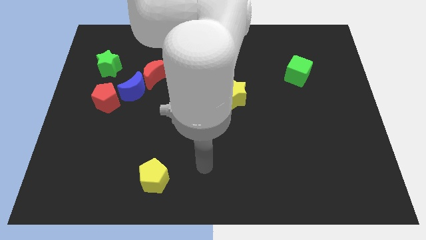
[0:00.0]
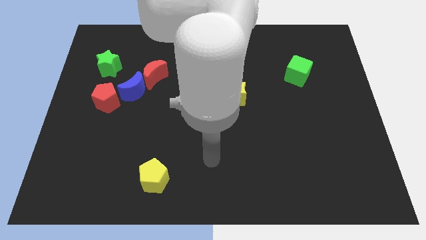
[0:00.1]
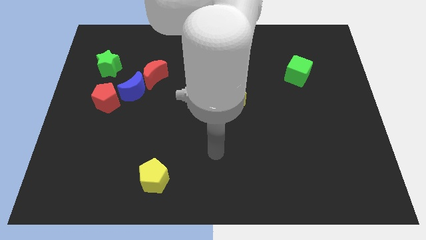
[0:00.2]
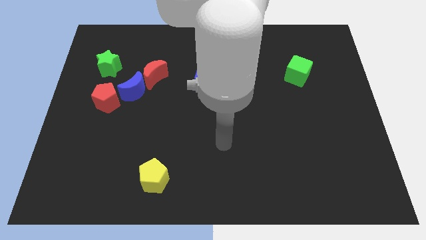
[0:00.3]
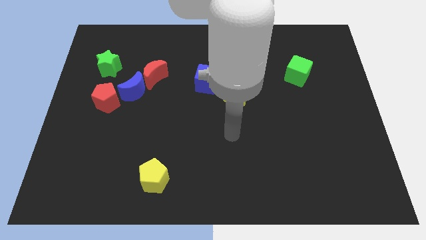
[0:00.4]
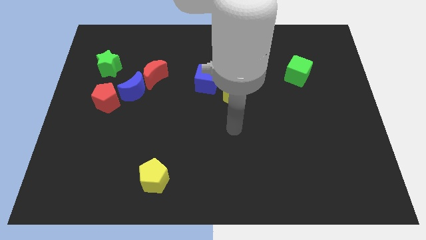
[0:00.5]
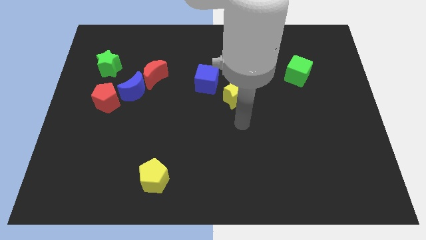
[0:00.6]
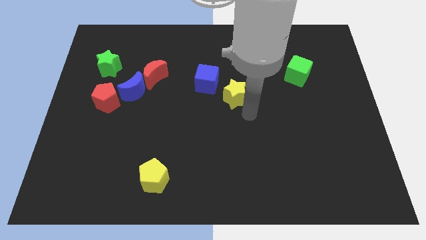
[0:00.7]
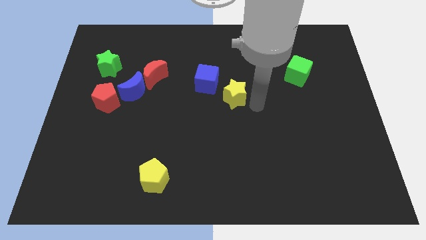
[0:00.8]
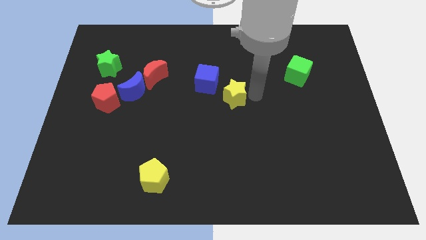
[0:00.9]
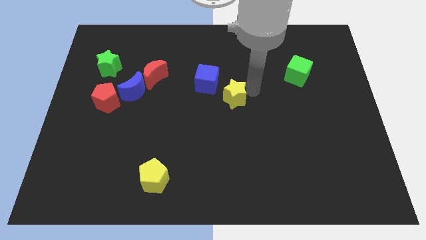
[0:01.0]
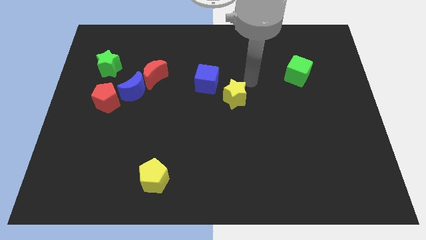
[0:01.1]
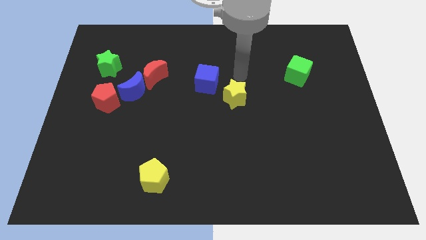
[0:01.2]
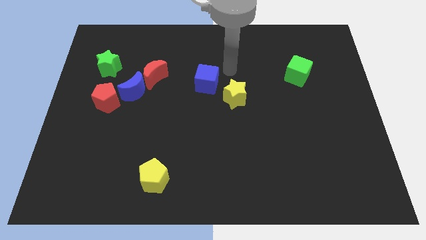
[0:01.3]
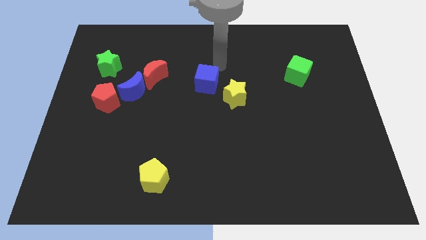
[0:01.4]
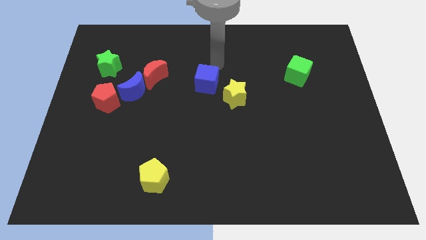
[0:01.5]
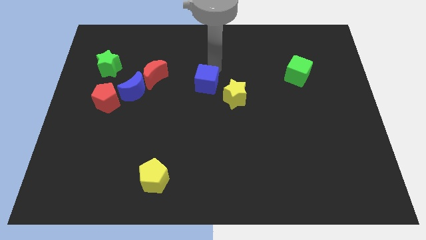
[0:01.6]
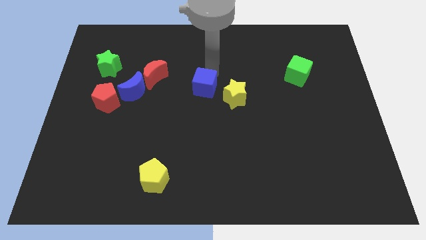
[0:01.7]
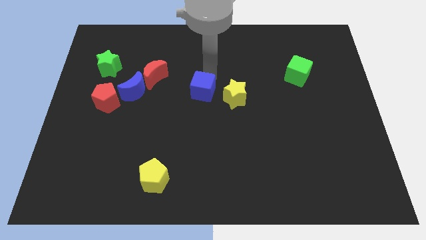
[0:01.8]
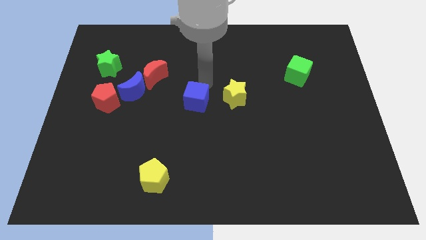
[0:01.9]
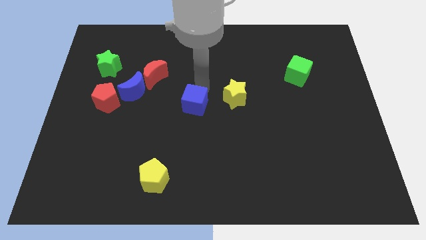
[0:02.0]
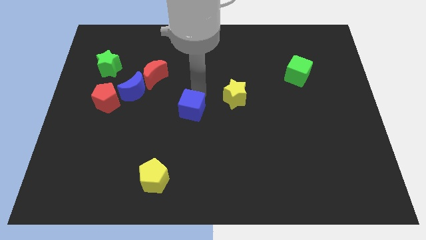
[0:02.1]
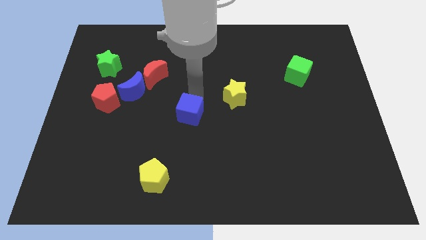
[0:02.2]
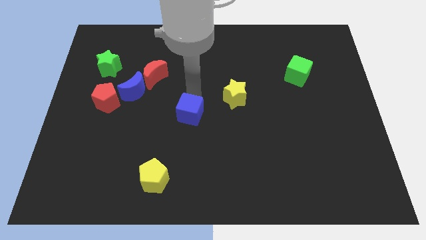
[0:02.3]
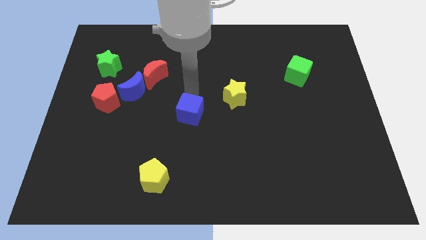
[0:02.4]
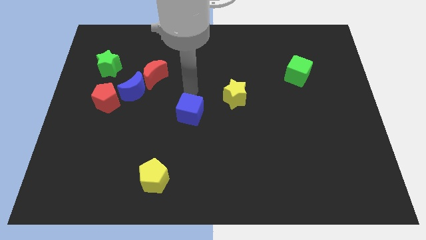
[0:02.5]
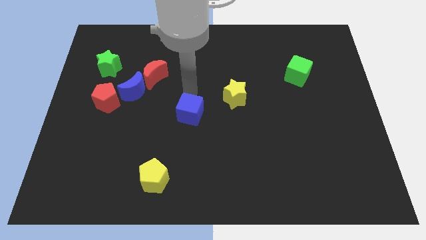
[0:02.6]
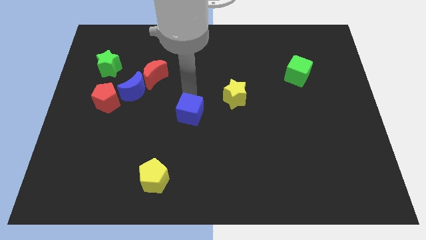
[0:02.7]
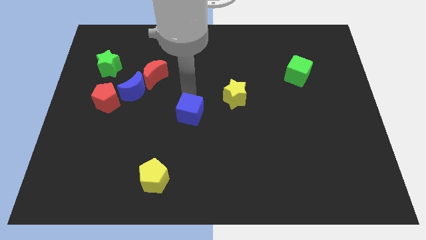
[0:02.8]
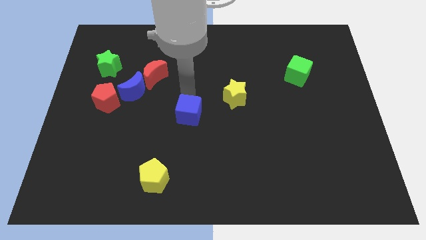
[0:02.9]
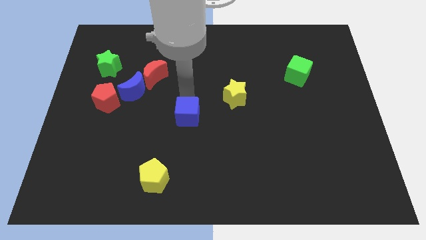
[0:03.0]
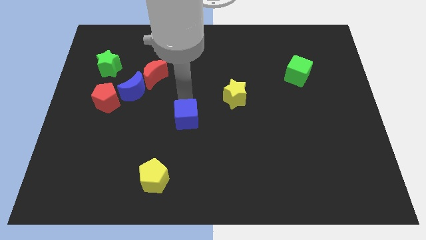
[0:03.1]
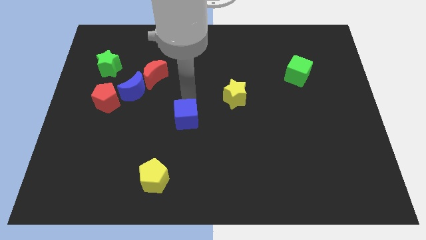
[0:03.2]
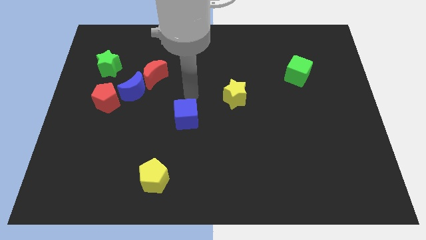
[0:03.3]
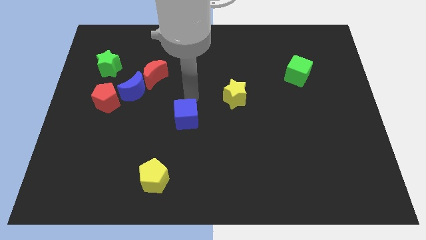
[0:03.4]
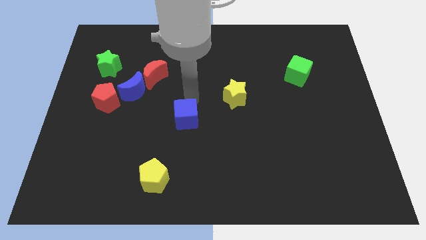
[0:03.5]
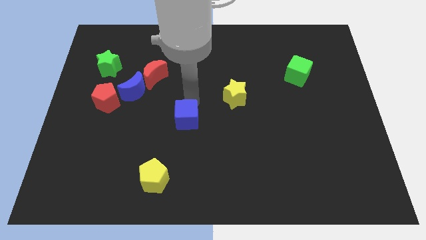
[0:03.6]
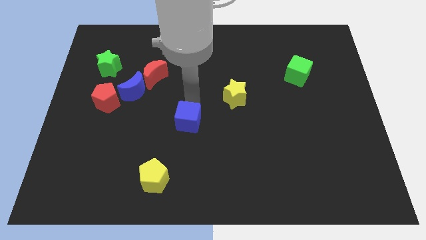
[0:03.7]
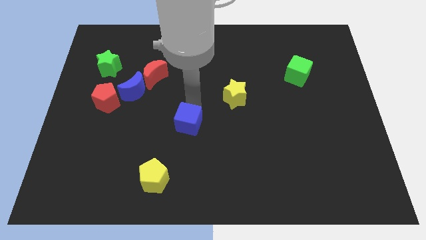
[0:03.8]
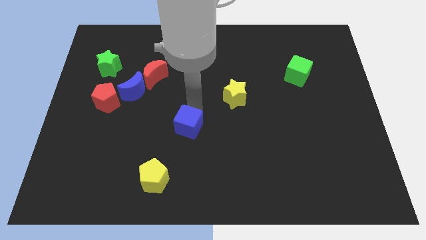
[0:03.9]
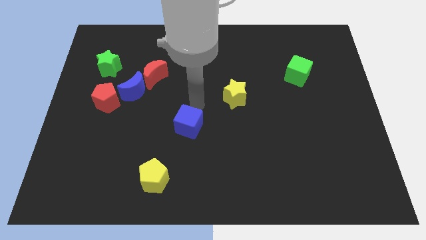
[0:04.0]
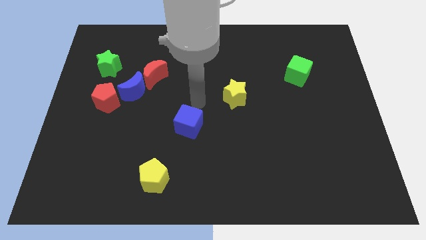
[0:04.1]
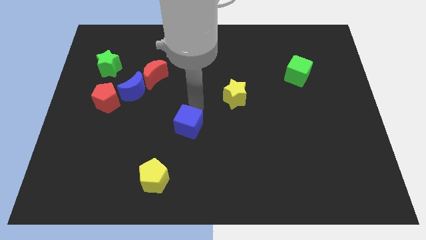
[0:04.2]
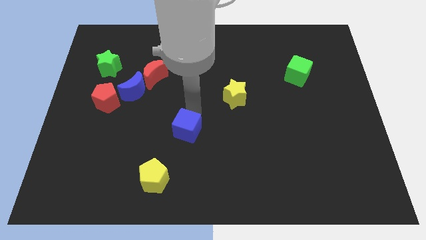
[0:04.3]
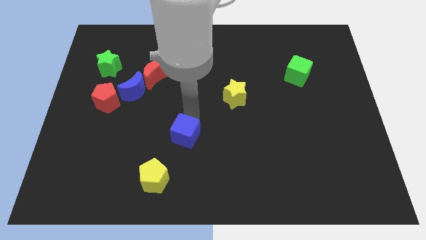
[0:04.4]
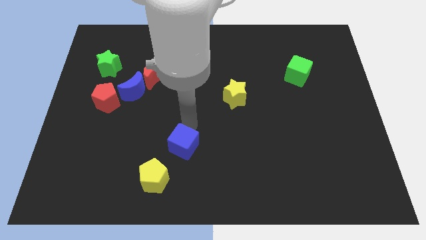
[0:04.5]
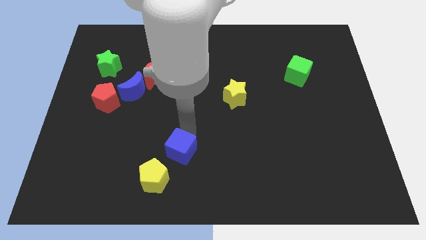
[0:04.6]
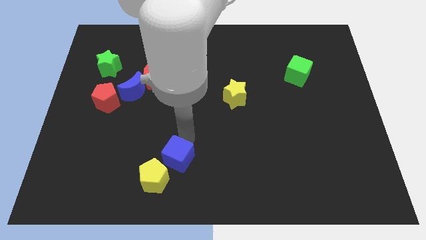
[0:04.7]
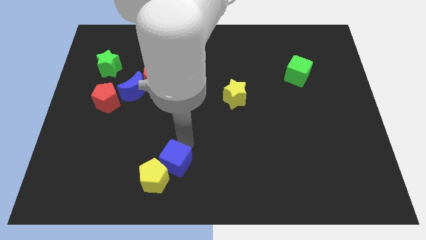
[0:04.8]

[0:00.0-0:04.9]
move the blue cube close to the yellow pentagon

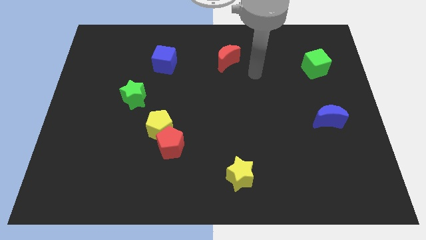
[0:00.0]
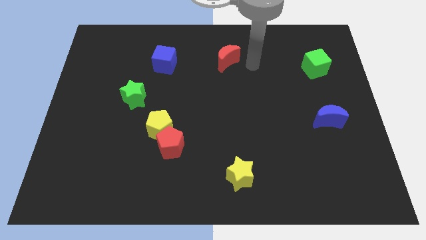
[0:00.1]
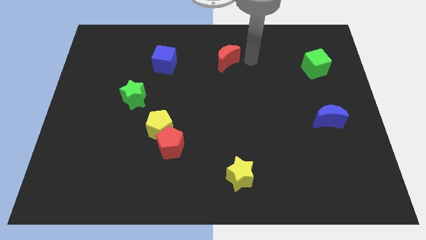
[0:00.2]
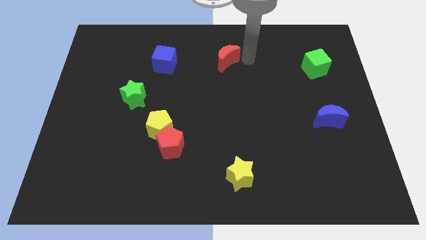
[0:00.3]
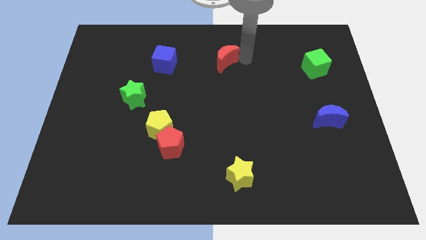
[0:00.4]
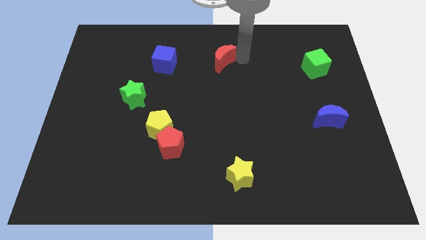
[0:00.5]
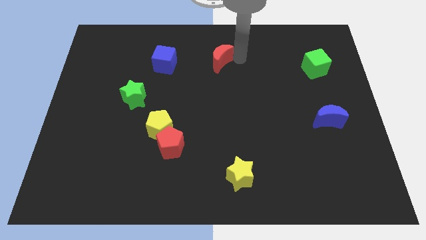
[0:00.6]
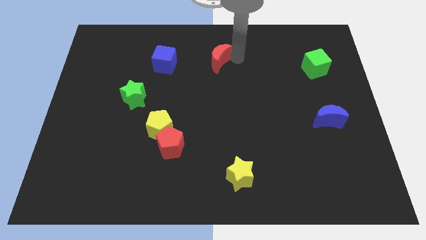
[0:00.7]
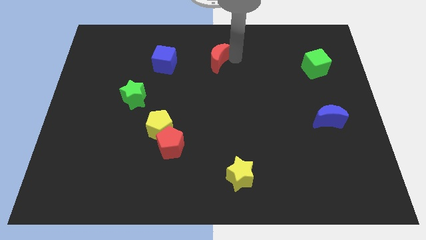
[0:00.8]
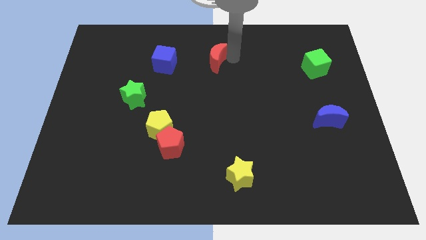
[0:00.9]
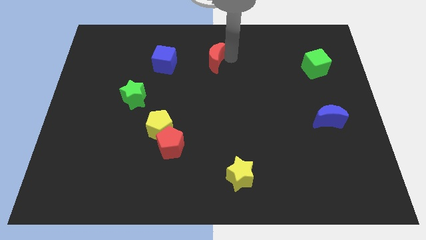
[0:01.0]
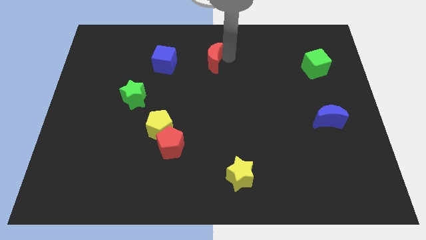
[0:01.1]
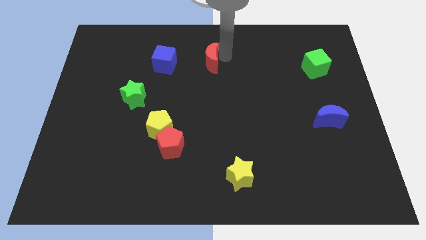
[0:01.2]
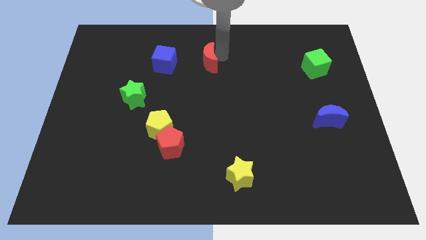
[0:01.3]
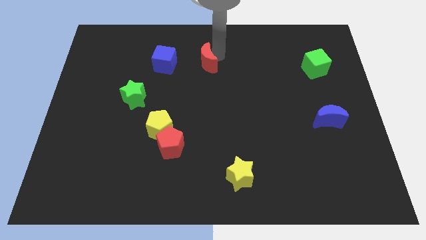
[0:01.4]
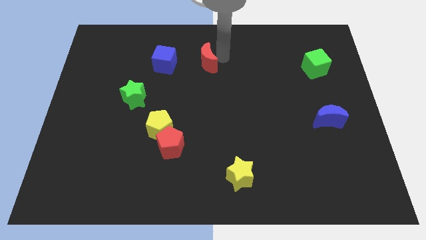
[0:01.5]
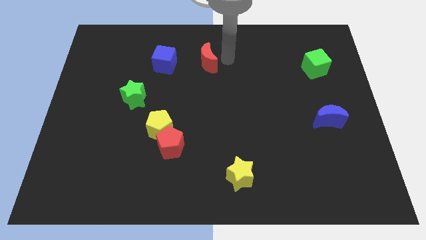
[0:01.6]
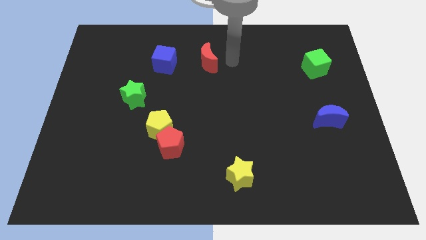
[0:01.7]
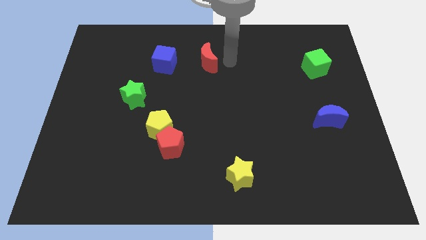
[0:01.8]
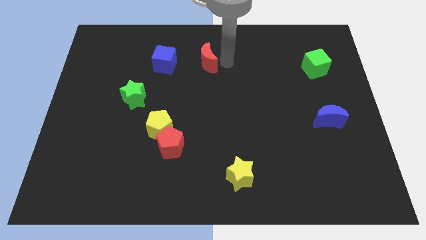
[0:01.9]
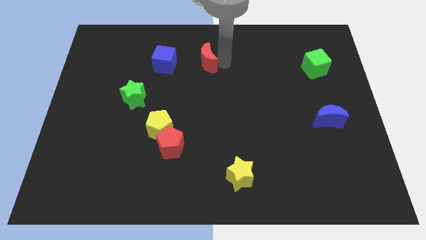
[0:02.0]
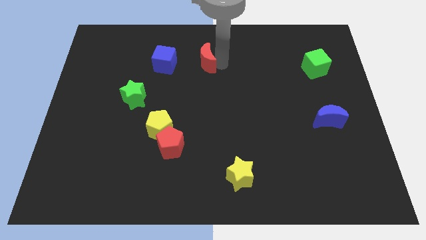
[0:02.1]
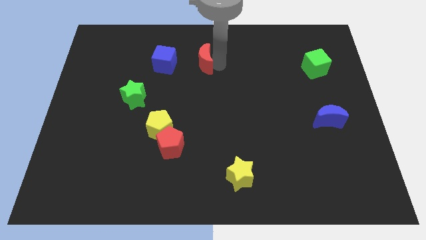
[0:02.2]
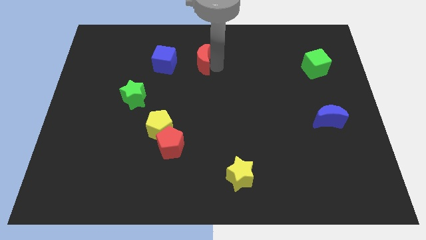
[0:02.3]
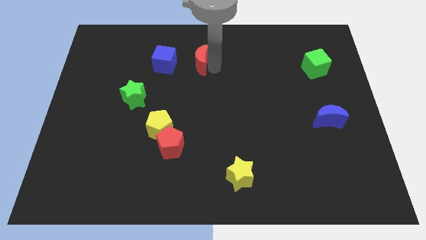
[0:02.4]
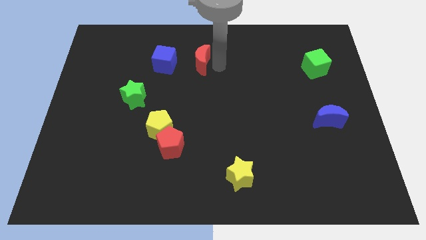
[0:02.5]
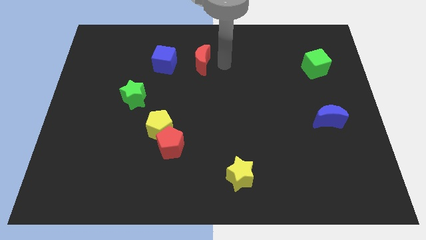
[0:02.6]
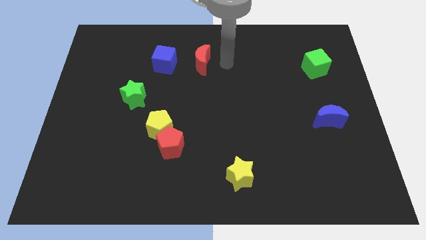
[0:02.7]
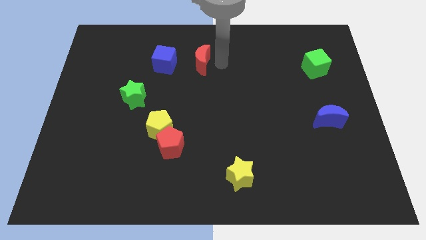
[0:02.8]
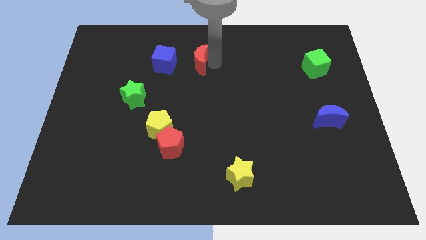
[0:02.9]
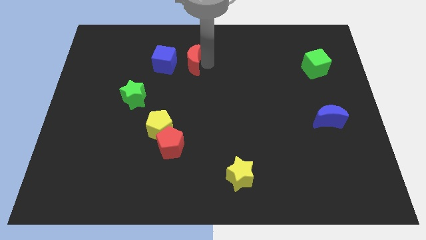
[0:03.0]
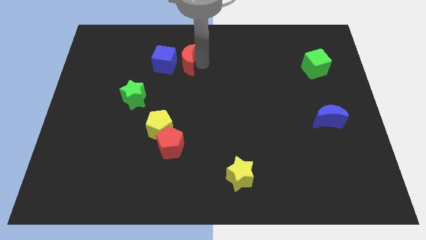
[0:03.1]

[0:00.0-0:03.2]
move the red moon to the blue cube
